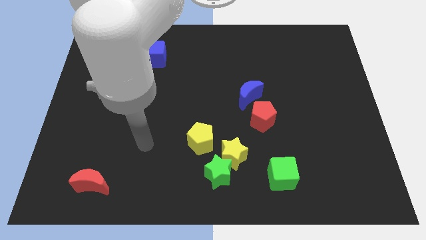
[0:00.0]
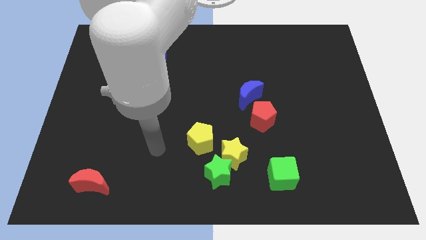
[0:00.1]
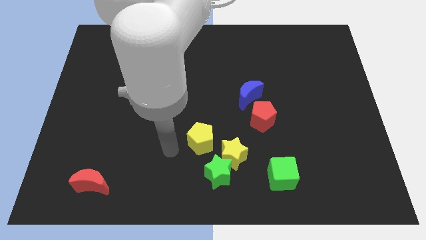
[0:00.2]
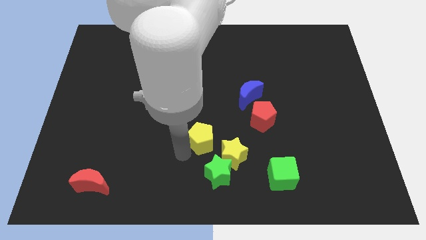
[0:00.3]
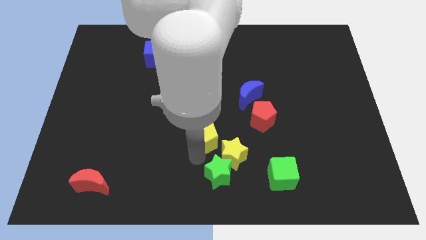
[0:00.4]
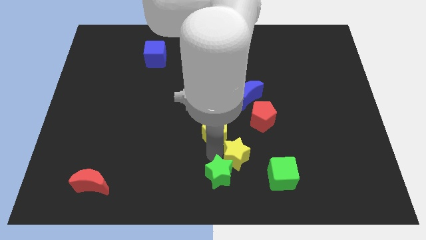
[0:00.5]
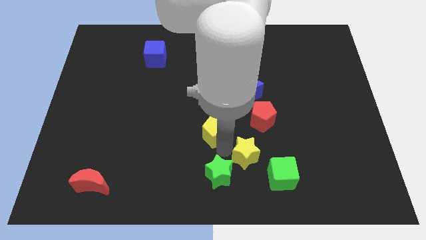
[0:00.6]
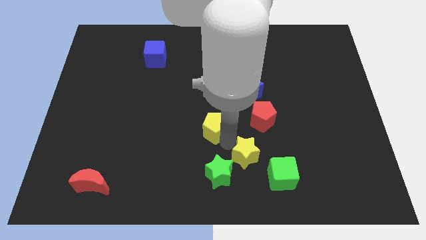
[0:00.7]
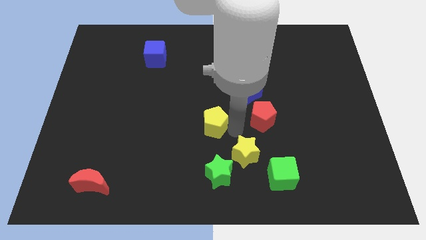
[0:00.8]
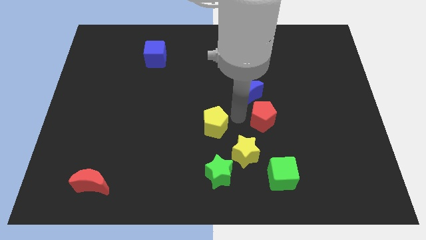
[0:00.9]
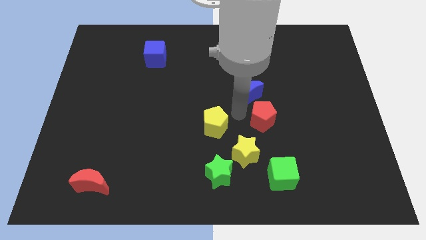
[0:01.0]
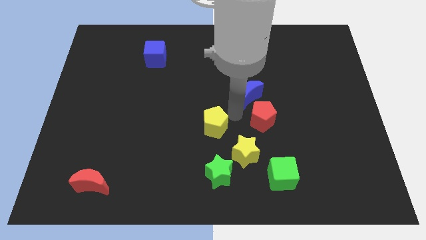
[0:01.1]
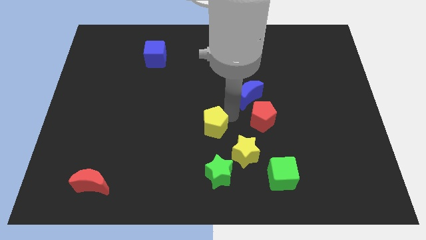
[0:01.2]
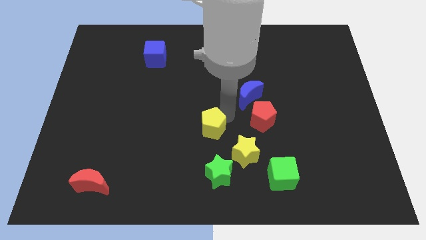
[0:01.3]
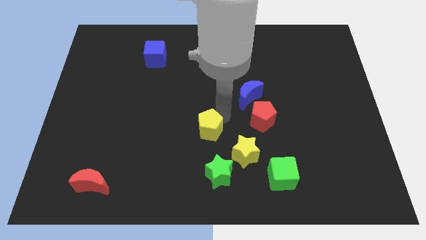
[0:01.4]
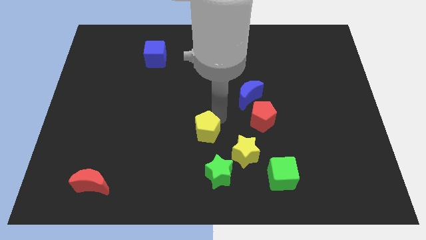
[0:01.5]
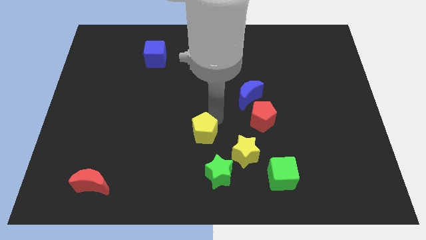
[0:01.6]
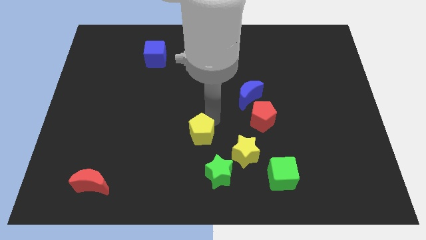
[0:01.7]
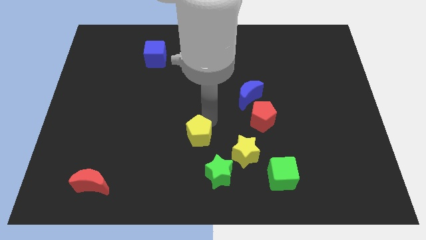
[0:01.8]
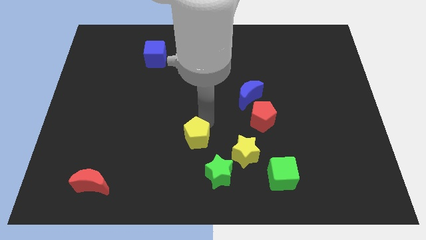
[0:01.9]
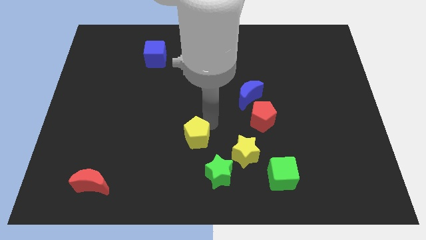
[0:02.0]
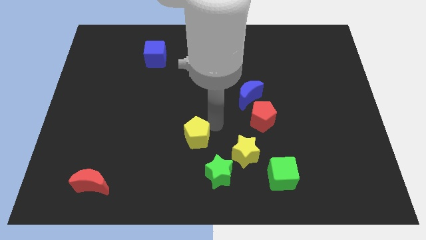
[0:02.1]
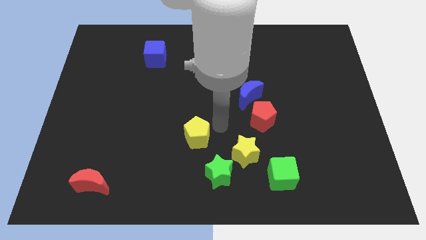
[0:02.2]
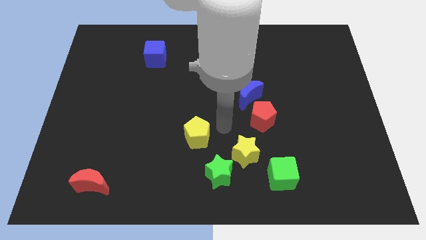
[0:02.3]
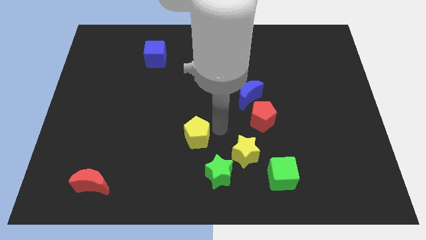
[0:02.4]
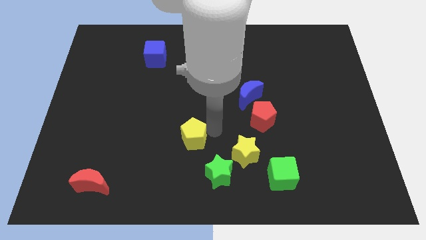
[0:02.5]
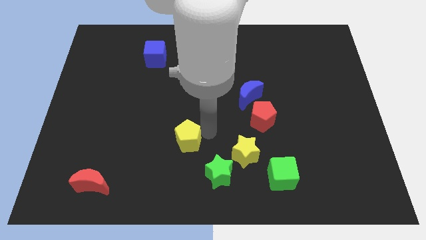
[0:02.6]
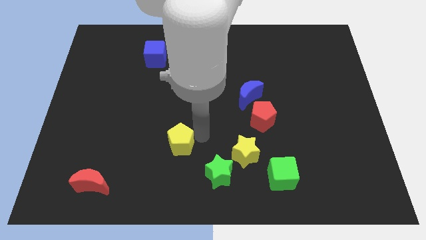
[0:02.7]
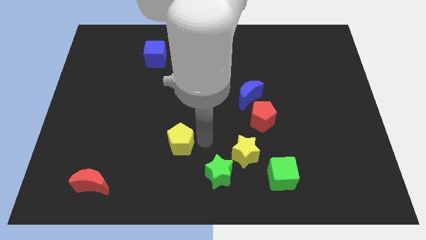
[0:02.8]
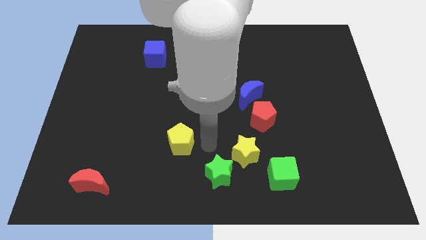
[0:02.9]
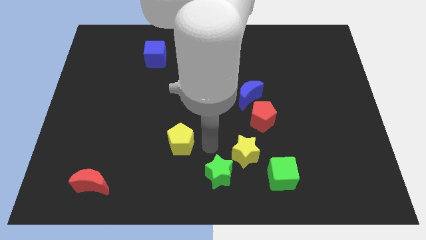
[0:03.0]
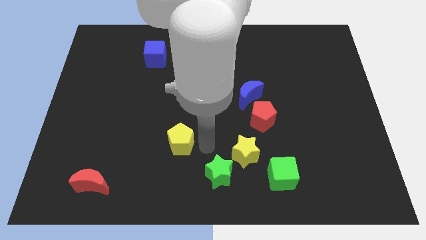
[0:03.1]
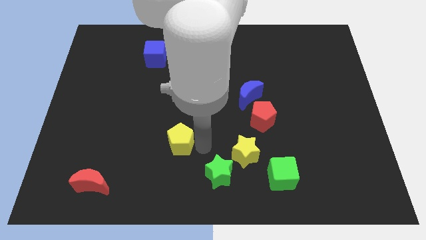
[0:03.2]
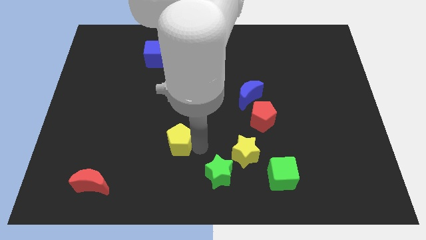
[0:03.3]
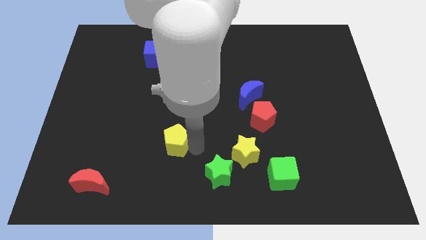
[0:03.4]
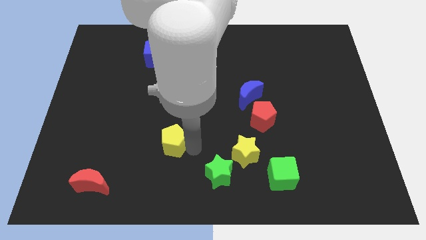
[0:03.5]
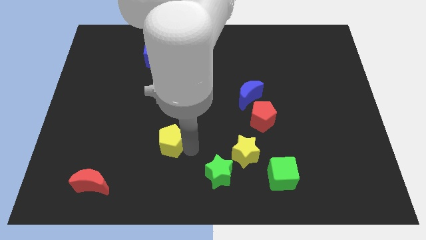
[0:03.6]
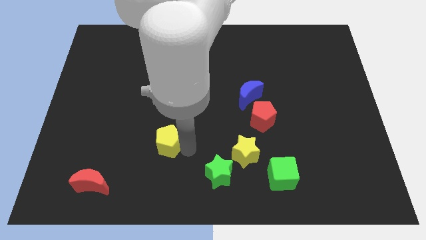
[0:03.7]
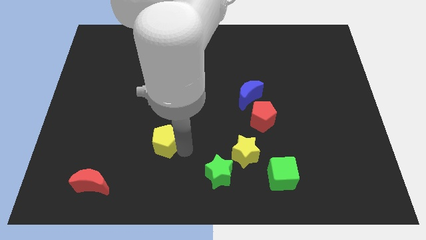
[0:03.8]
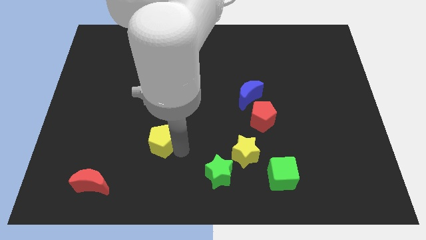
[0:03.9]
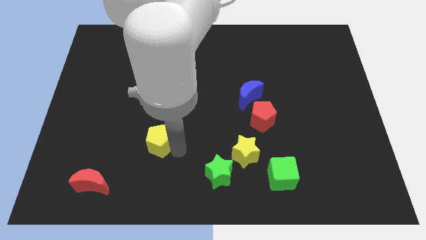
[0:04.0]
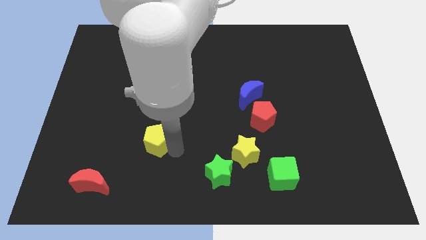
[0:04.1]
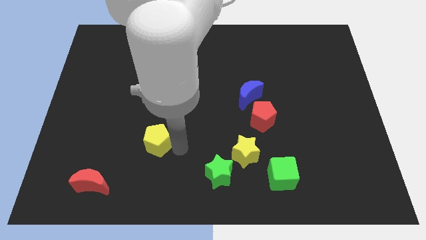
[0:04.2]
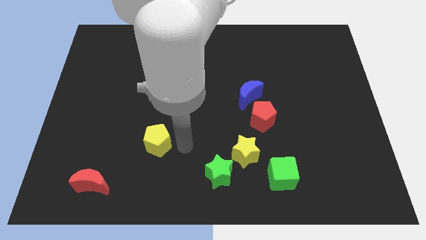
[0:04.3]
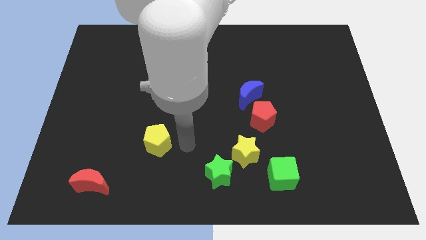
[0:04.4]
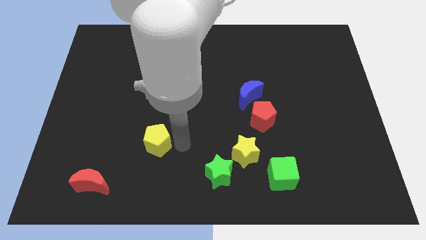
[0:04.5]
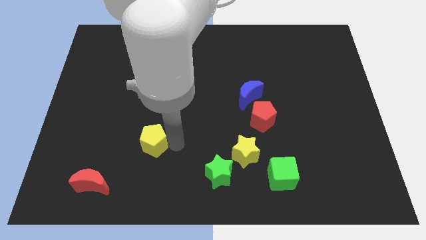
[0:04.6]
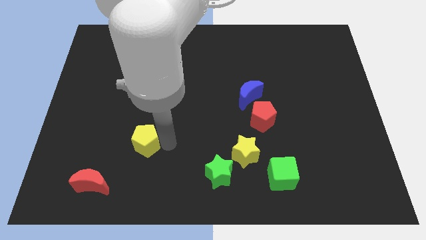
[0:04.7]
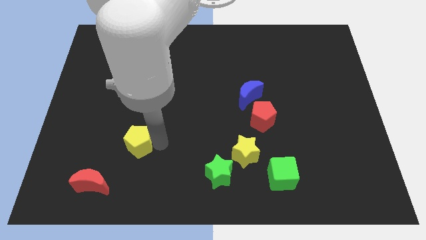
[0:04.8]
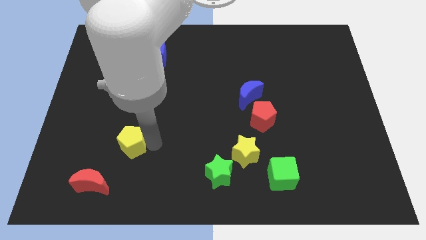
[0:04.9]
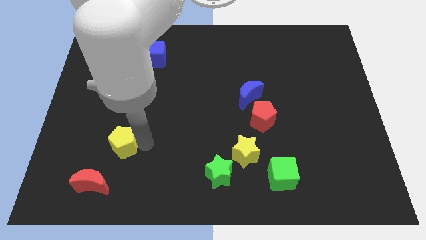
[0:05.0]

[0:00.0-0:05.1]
slide the yellow pentagon above the red moon

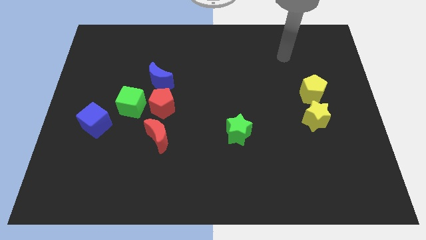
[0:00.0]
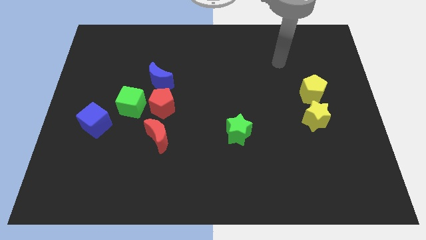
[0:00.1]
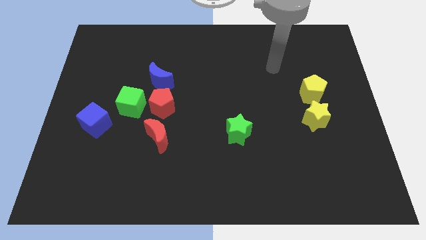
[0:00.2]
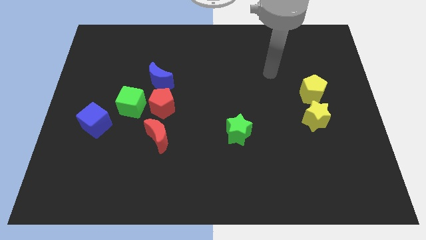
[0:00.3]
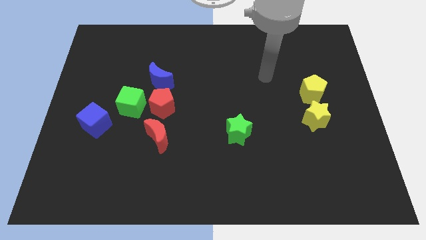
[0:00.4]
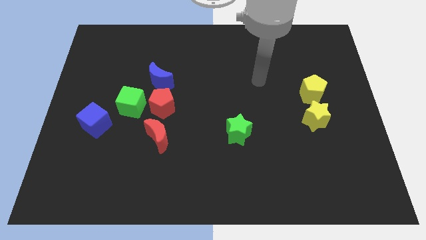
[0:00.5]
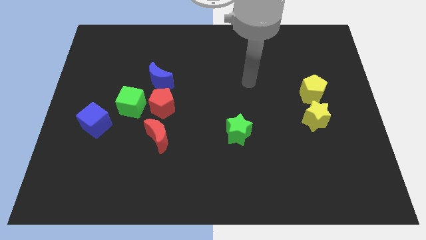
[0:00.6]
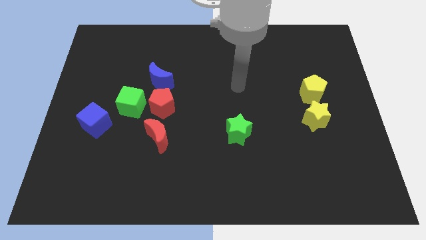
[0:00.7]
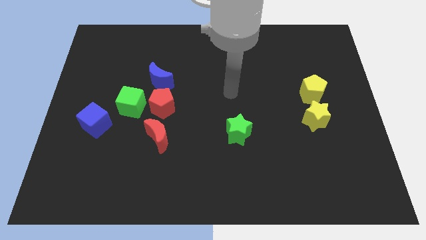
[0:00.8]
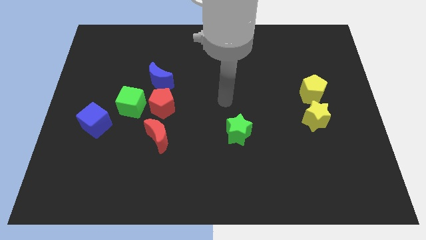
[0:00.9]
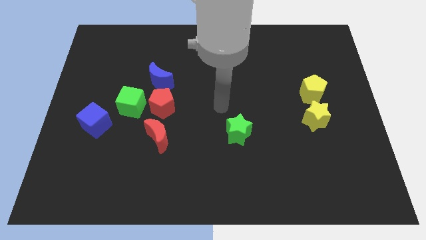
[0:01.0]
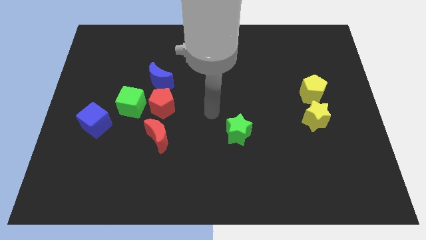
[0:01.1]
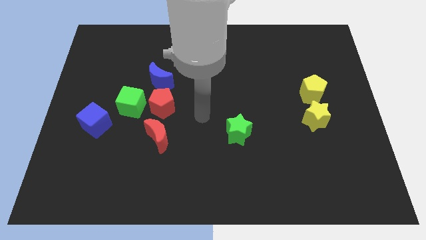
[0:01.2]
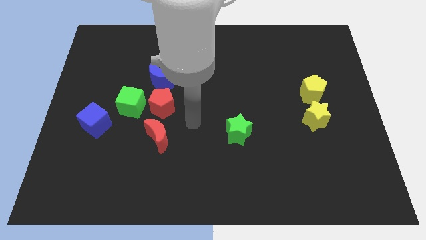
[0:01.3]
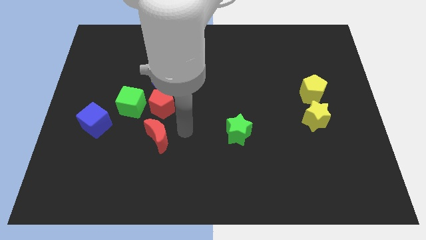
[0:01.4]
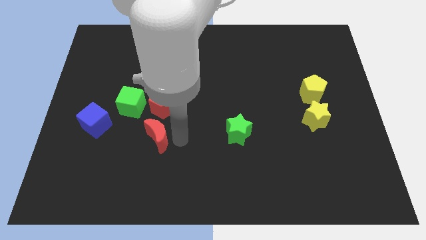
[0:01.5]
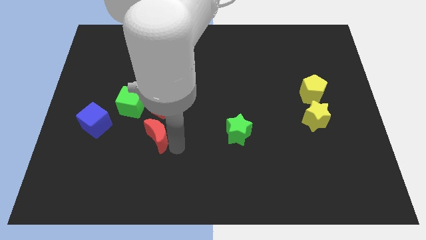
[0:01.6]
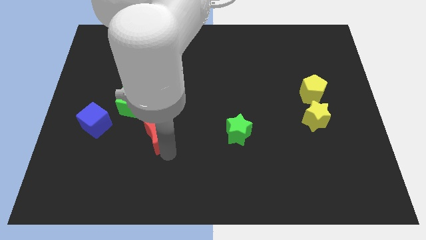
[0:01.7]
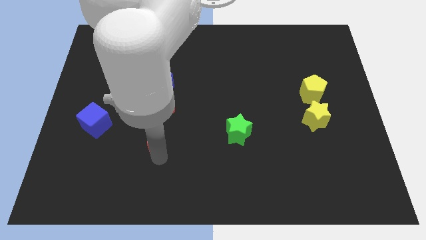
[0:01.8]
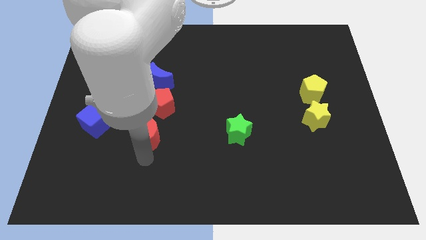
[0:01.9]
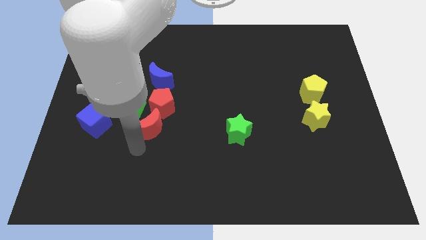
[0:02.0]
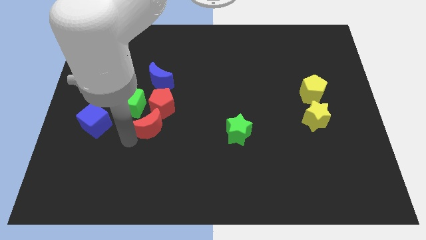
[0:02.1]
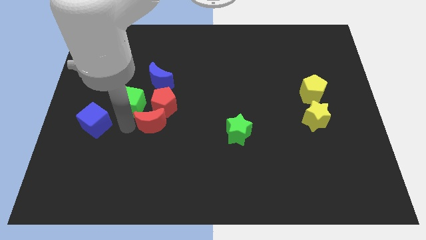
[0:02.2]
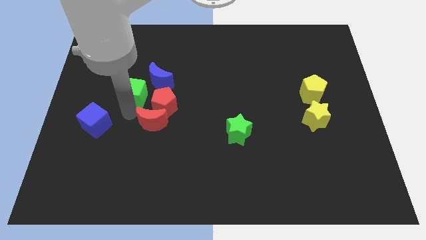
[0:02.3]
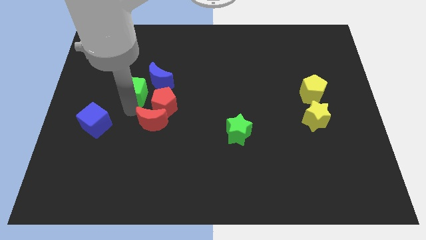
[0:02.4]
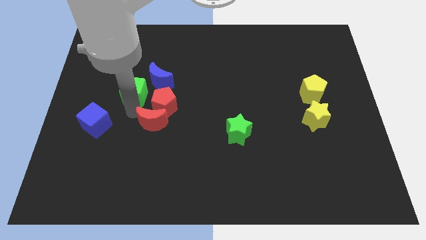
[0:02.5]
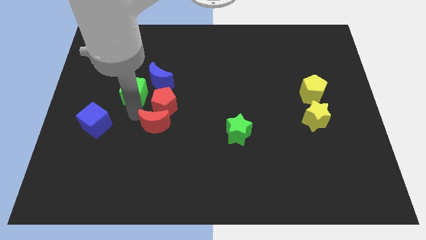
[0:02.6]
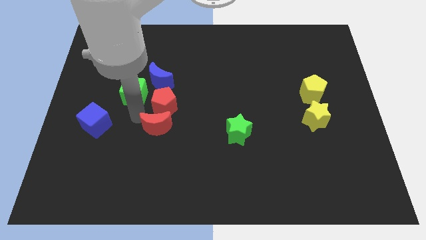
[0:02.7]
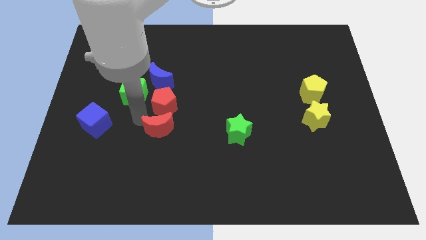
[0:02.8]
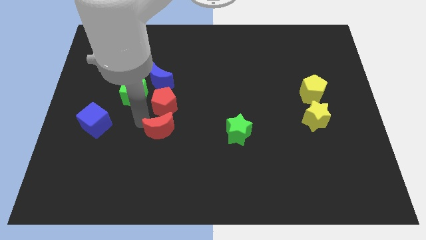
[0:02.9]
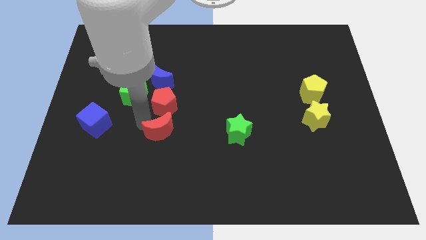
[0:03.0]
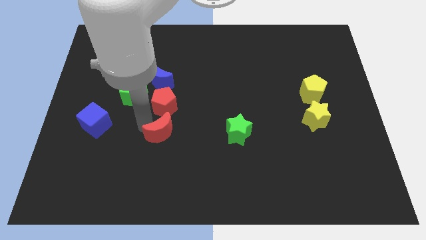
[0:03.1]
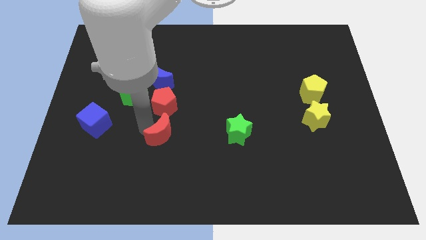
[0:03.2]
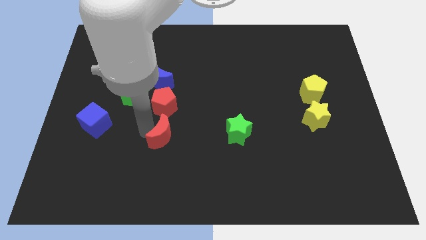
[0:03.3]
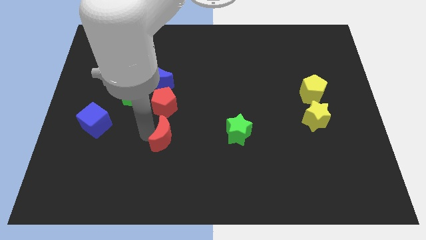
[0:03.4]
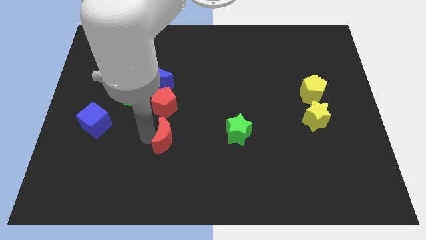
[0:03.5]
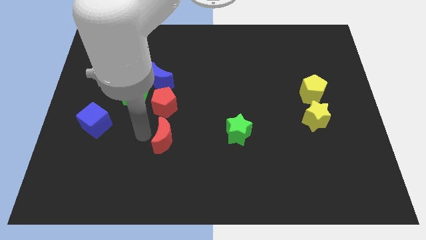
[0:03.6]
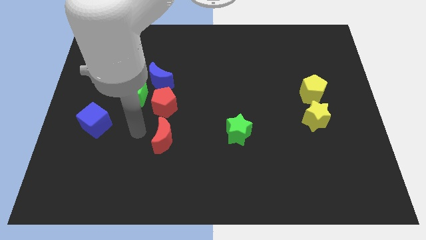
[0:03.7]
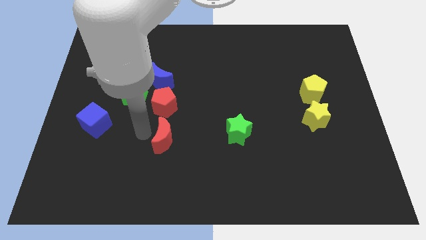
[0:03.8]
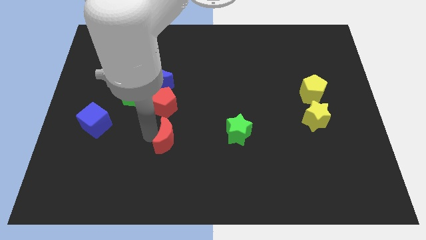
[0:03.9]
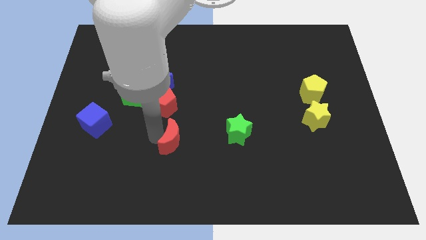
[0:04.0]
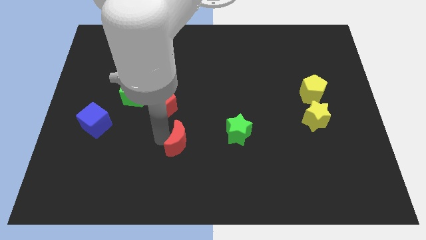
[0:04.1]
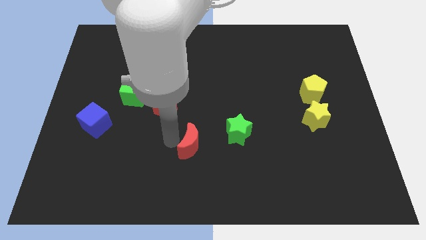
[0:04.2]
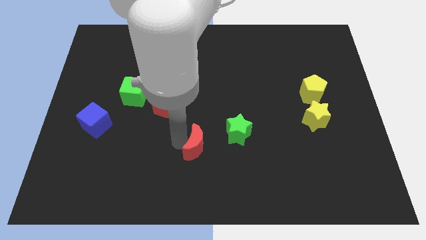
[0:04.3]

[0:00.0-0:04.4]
put the red moon to the bottom left of the green star
